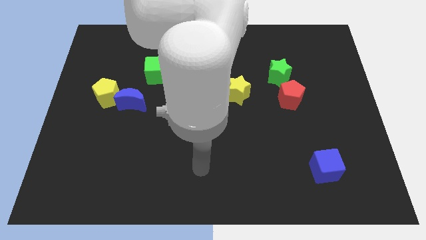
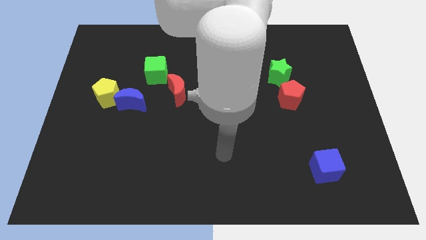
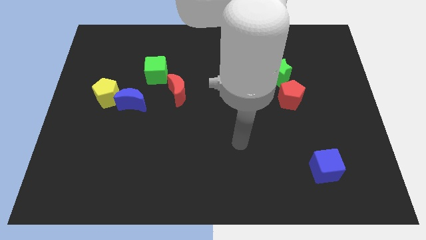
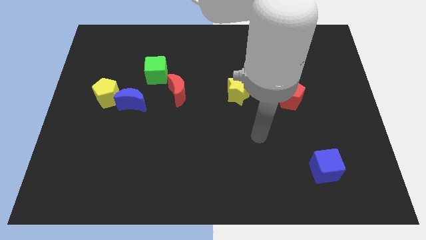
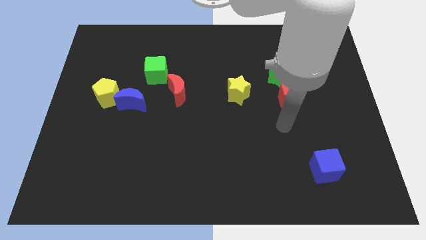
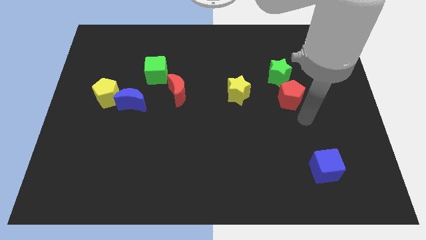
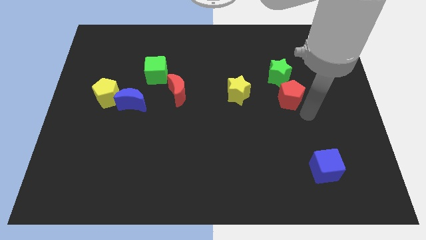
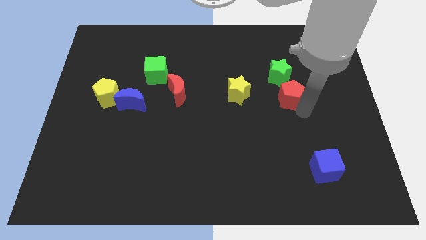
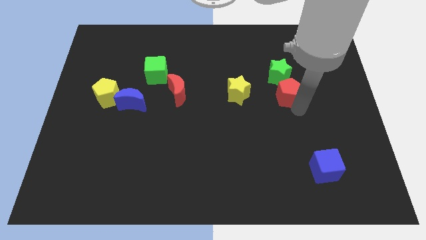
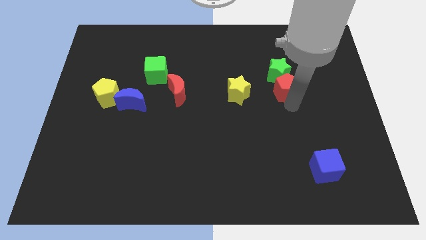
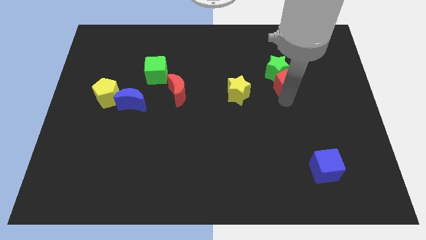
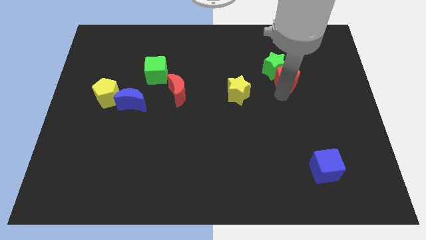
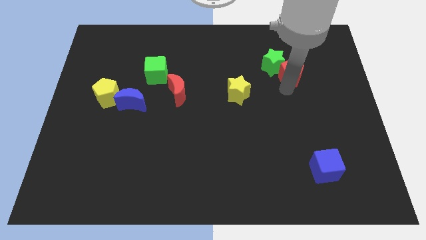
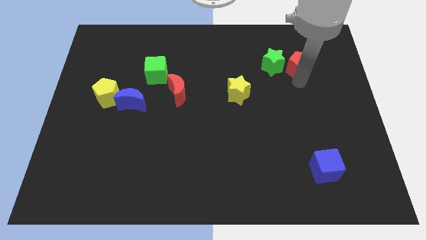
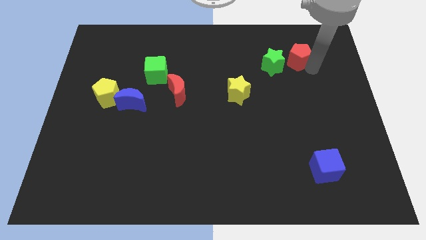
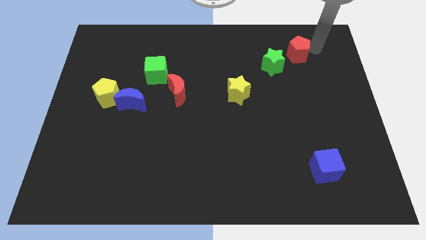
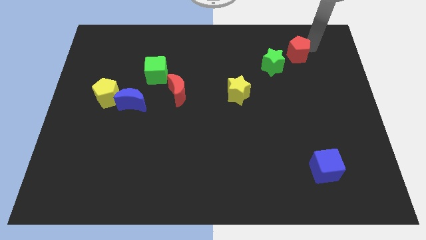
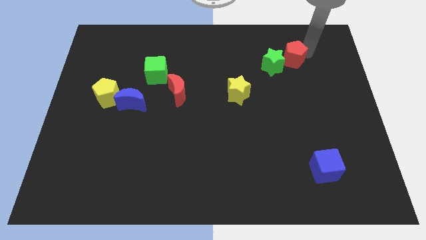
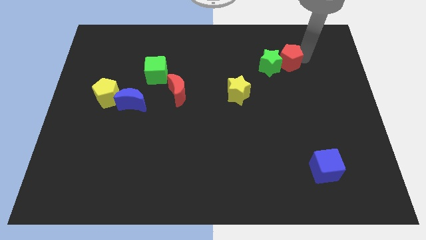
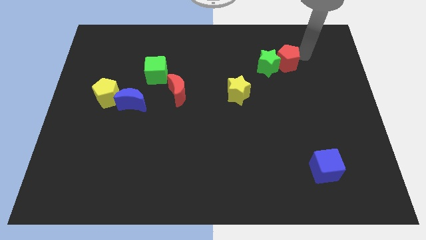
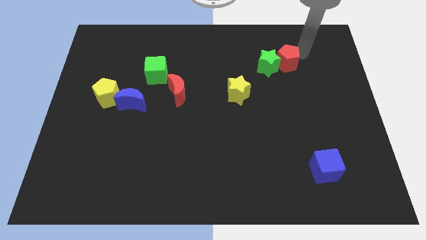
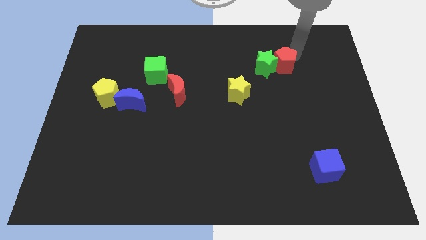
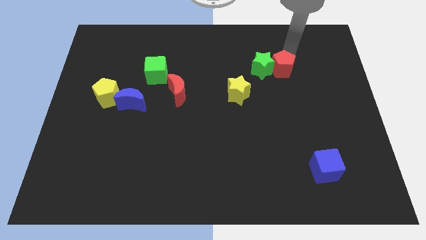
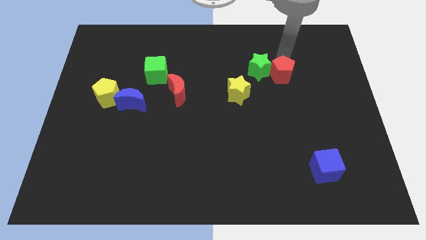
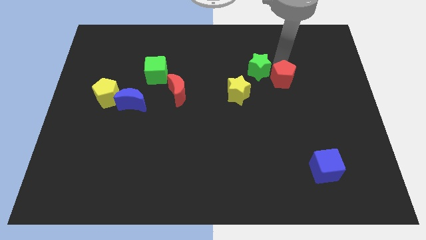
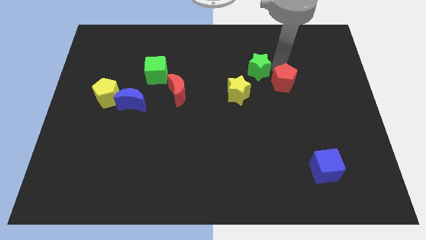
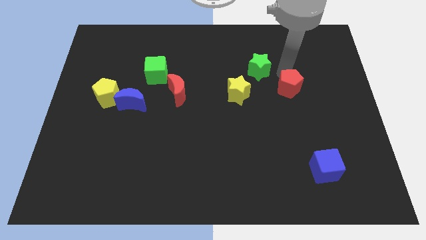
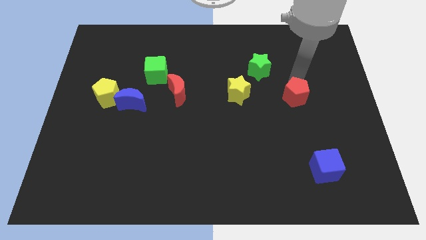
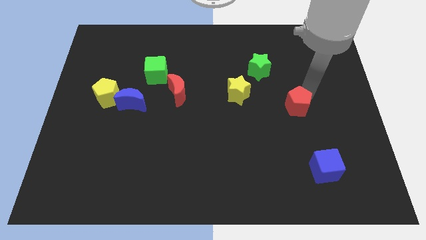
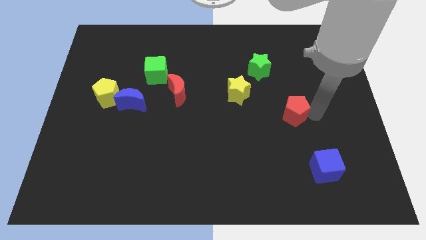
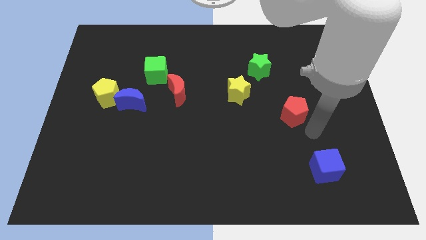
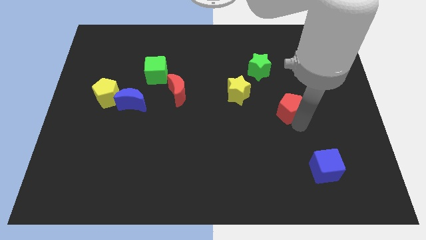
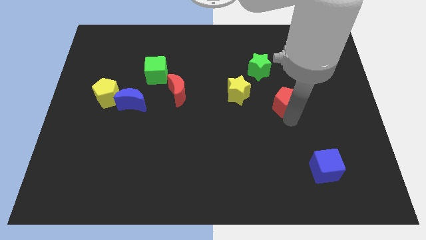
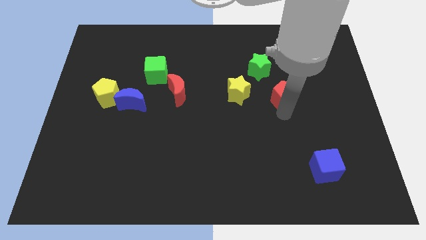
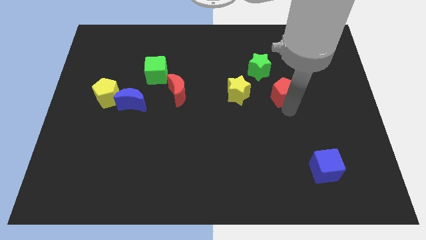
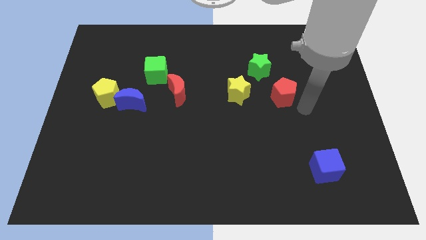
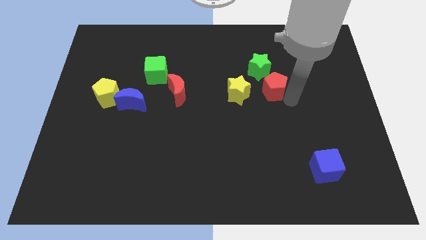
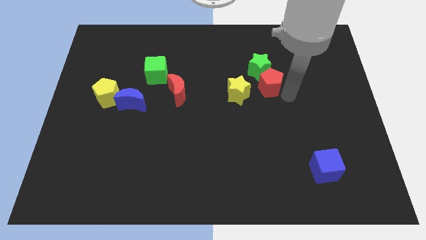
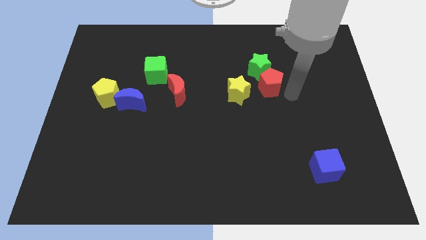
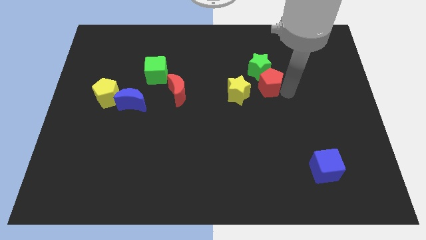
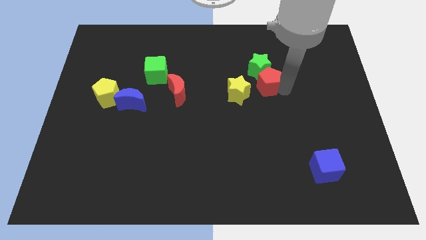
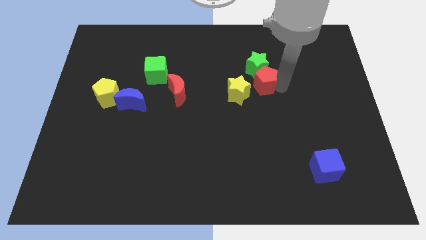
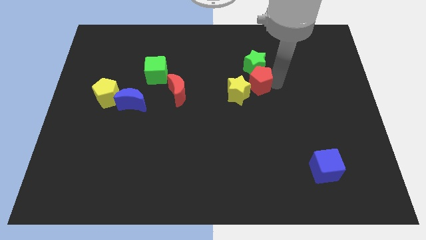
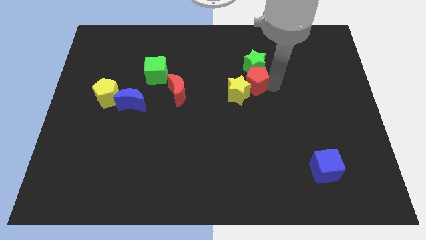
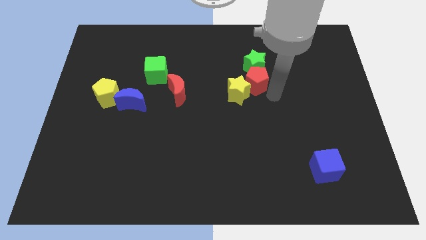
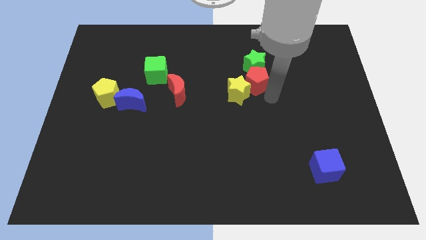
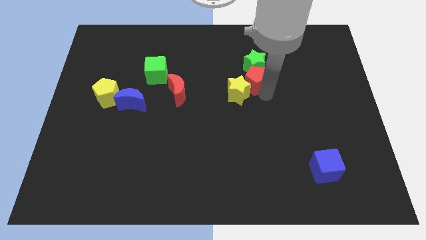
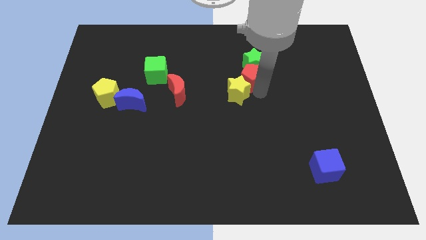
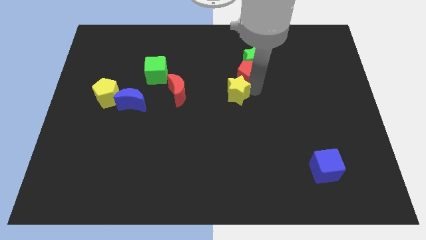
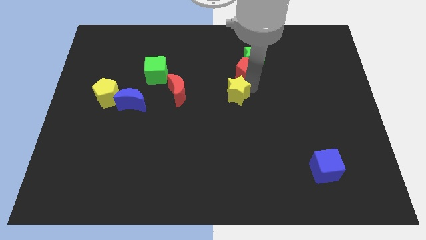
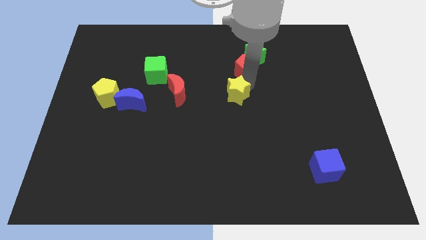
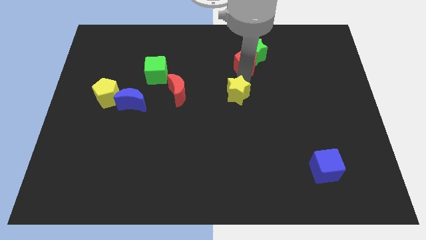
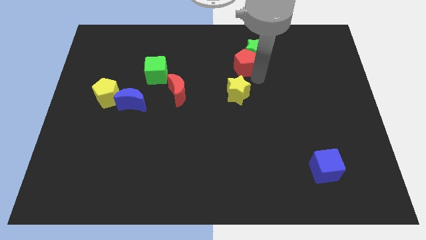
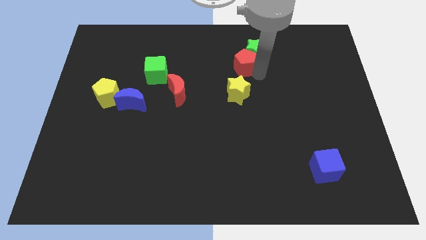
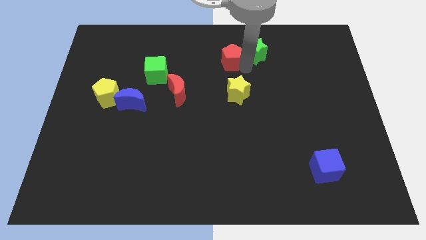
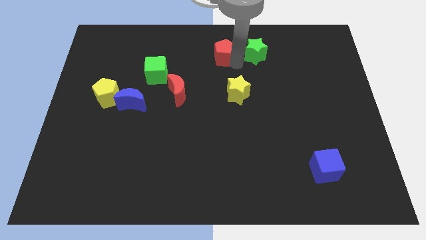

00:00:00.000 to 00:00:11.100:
push the red pentagon to the towards your base
